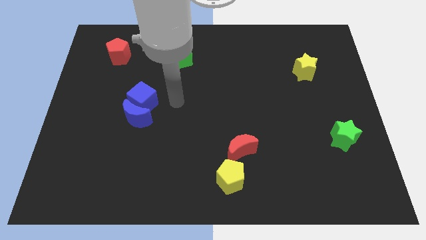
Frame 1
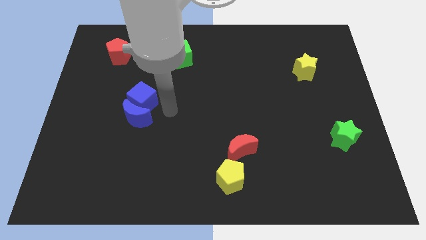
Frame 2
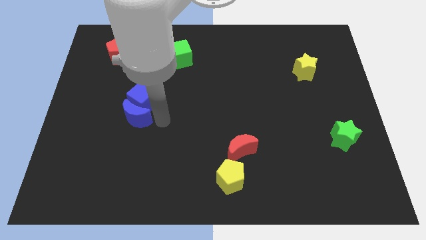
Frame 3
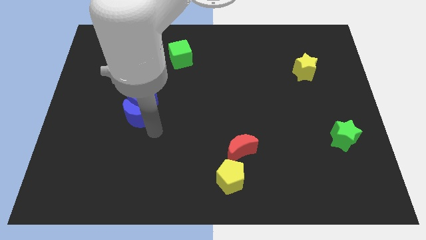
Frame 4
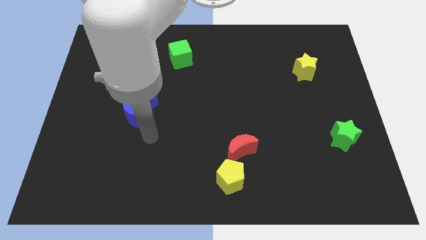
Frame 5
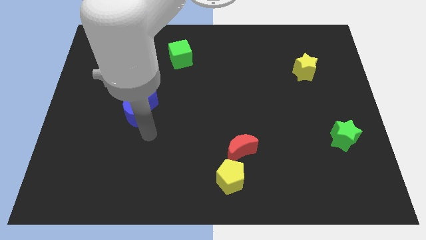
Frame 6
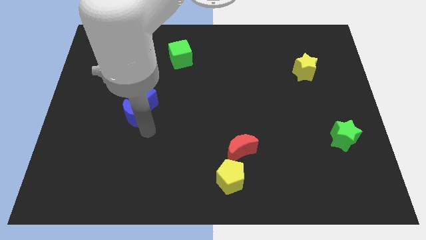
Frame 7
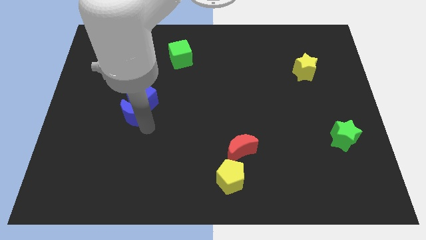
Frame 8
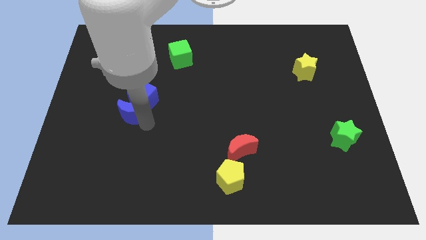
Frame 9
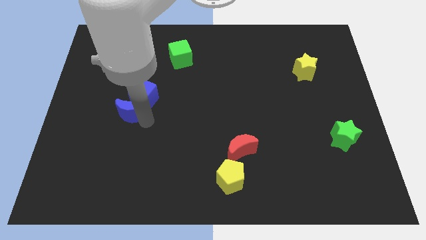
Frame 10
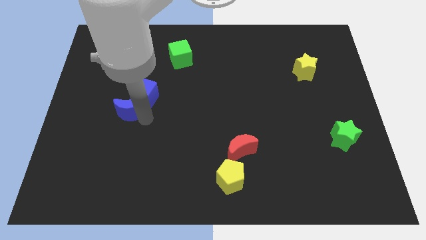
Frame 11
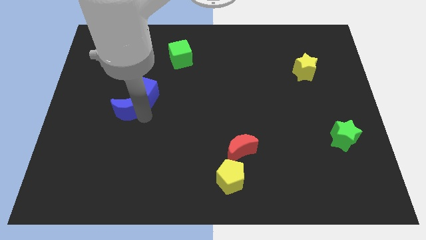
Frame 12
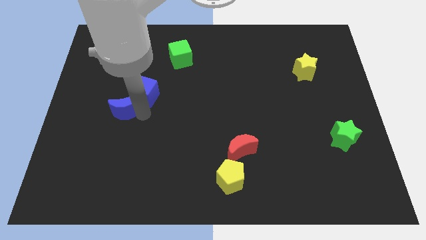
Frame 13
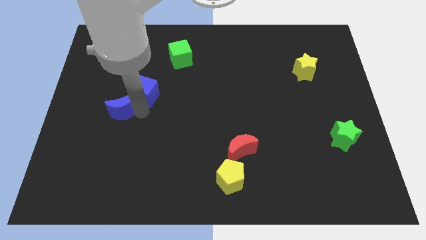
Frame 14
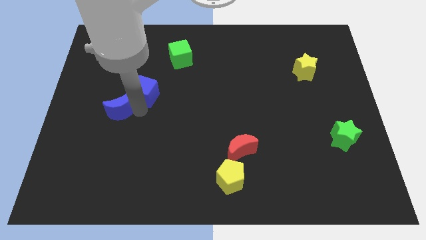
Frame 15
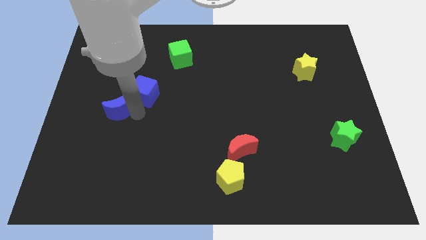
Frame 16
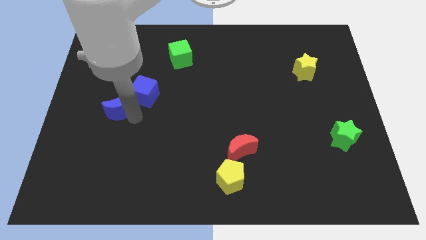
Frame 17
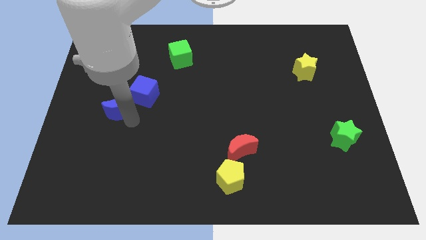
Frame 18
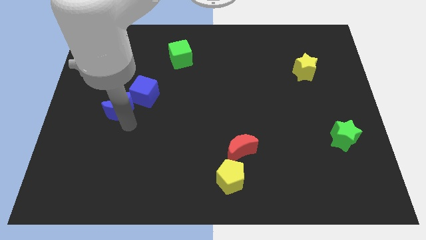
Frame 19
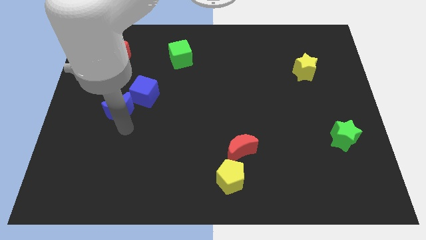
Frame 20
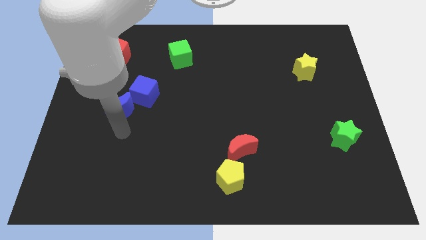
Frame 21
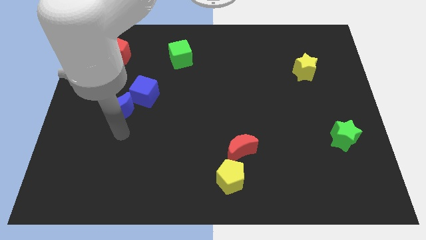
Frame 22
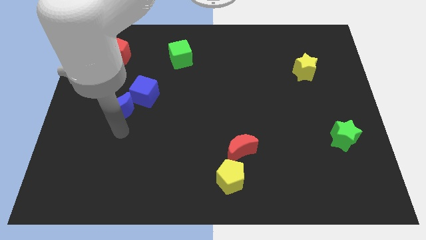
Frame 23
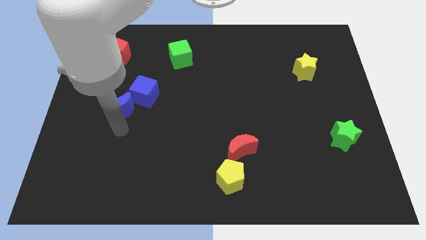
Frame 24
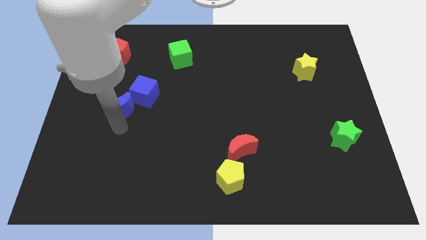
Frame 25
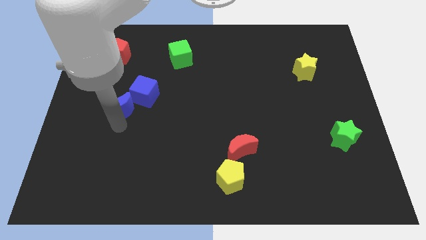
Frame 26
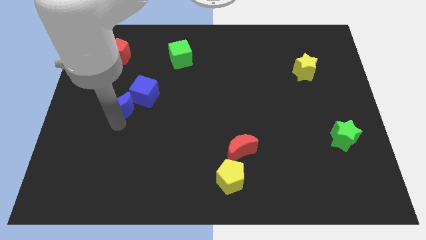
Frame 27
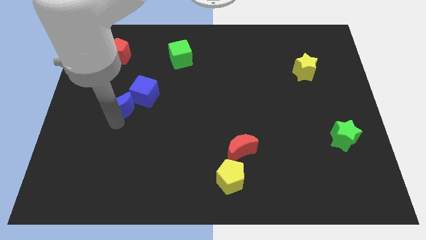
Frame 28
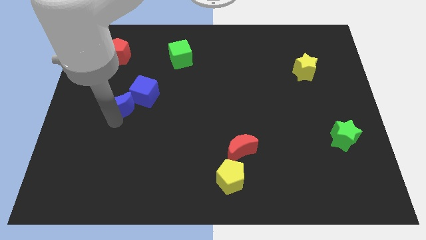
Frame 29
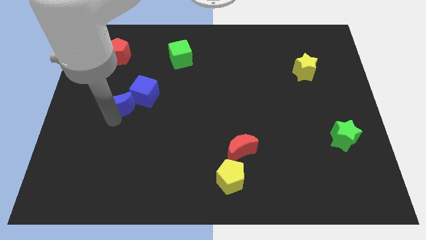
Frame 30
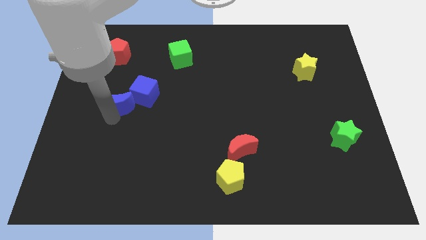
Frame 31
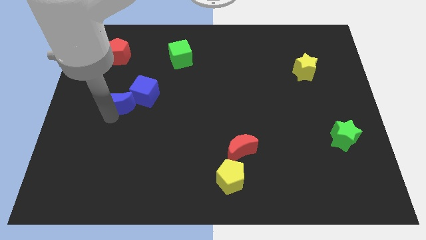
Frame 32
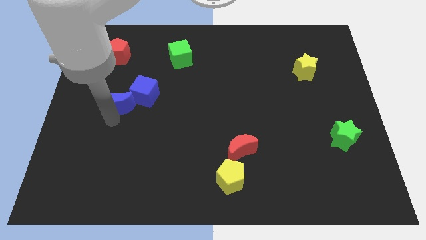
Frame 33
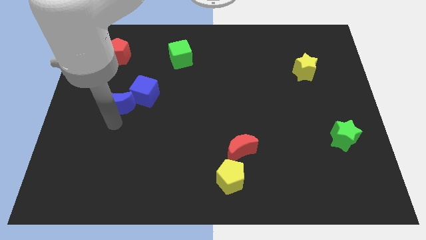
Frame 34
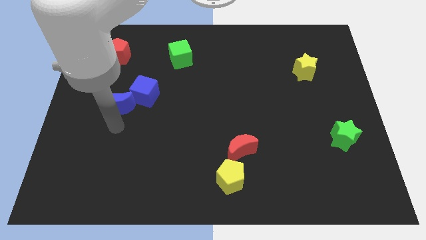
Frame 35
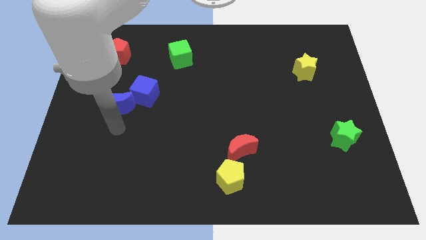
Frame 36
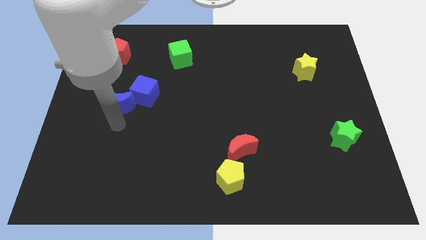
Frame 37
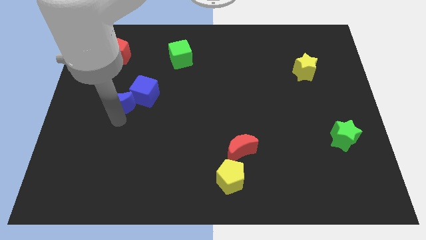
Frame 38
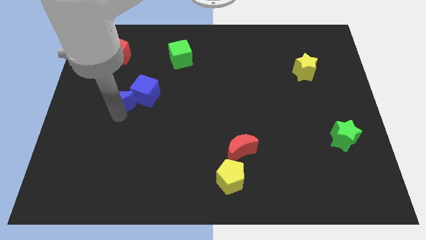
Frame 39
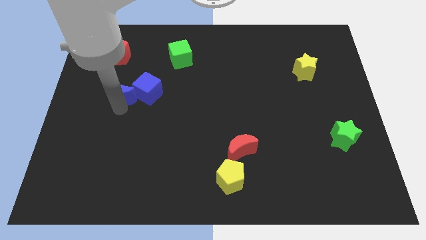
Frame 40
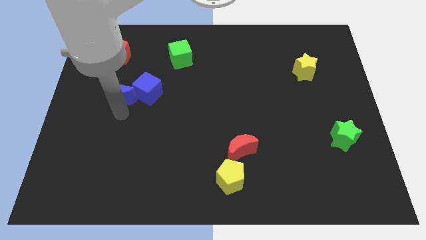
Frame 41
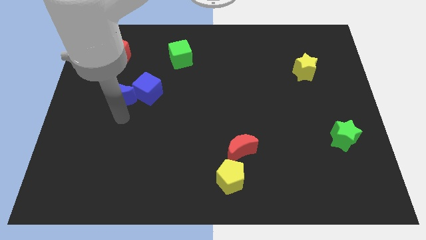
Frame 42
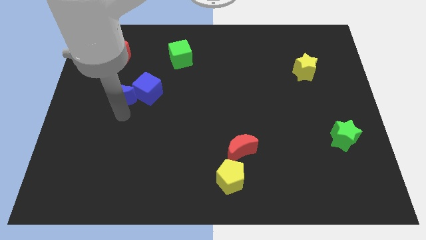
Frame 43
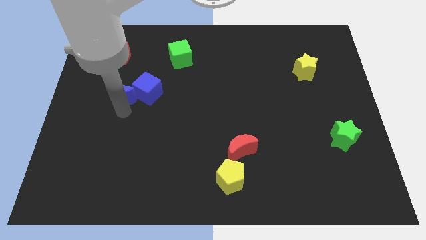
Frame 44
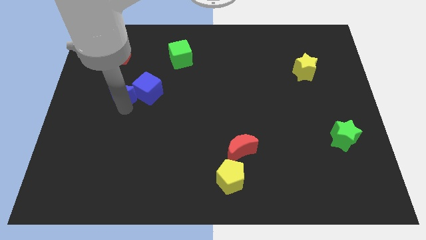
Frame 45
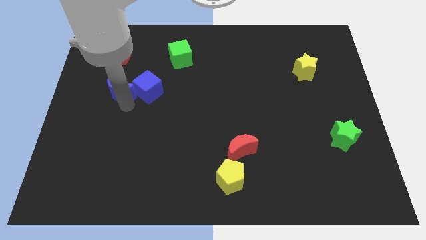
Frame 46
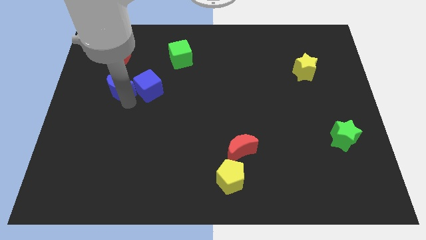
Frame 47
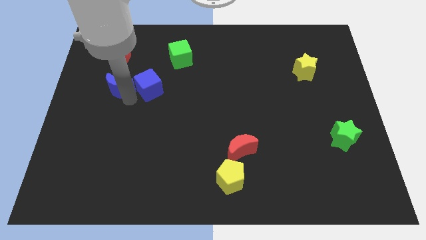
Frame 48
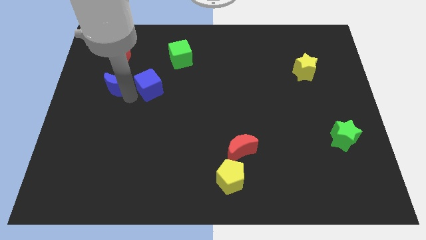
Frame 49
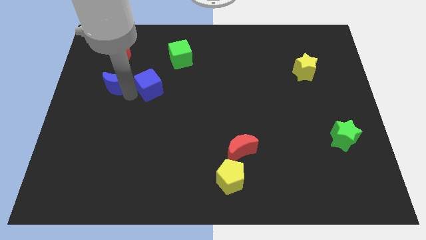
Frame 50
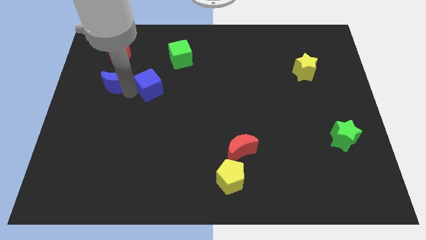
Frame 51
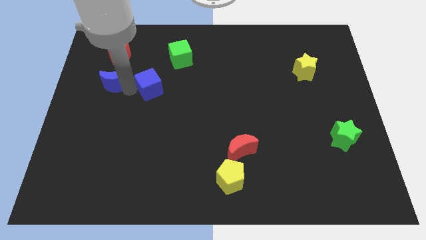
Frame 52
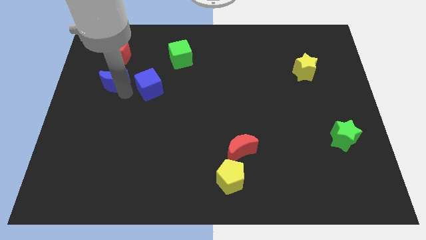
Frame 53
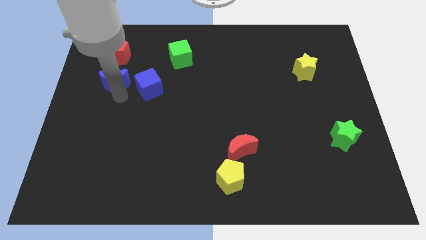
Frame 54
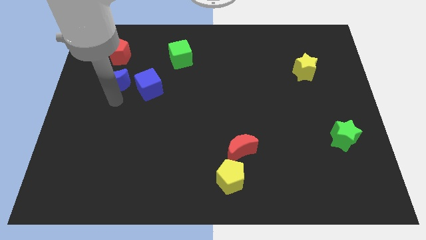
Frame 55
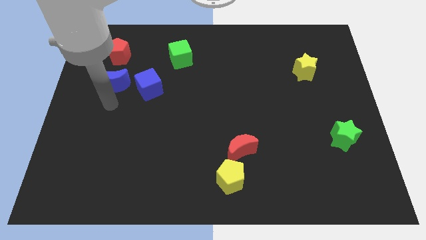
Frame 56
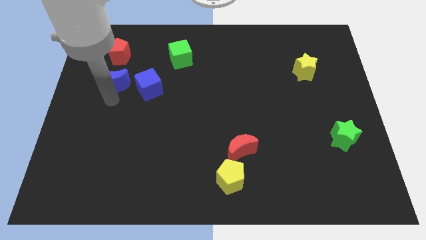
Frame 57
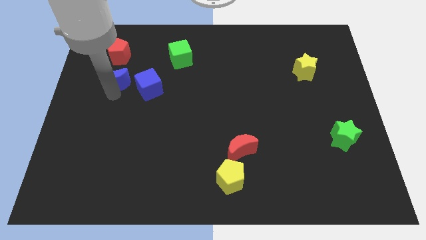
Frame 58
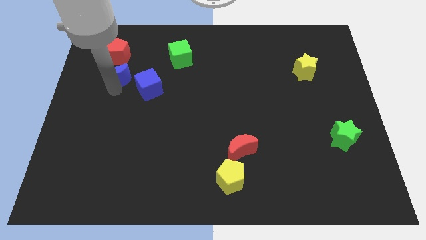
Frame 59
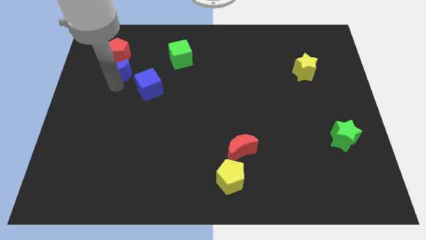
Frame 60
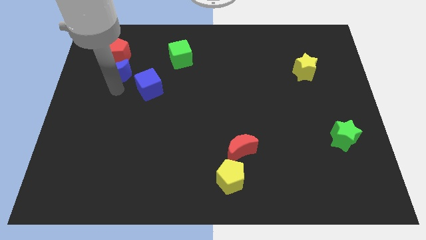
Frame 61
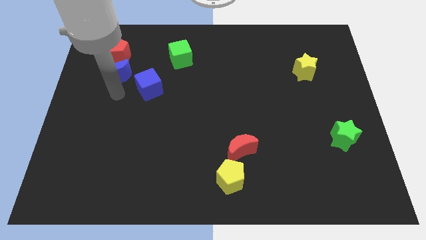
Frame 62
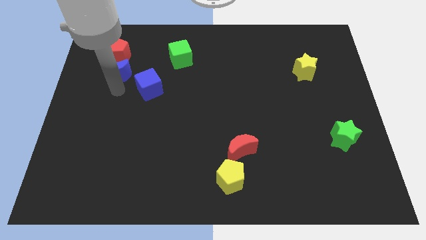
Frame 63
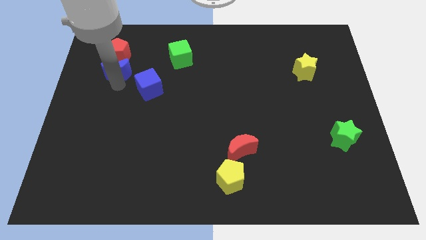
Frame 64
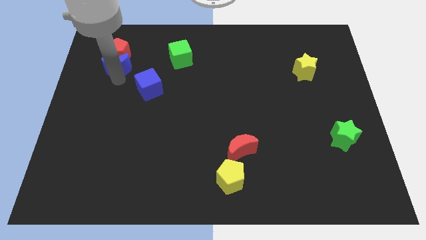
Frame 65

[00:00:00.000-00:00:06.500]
push the blue moon close to the red pentagon
